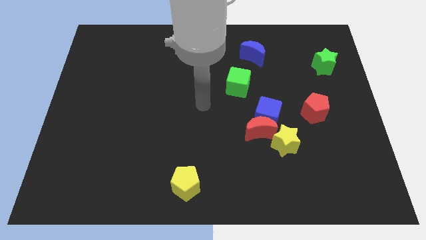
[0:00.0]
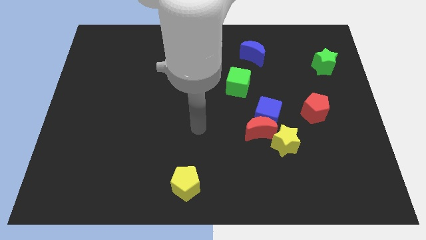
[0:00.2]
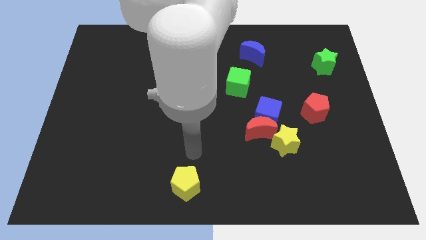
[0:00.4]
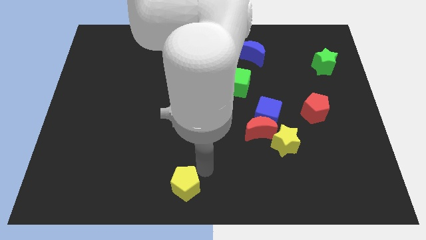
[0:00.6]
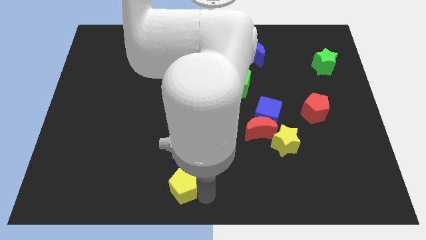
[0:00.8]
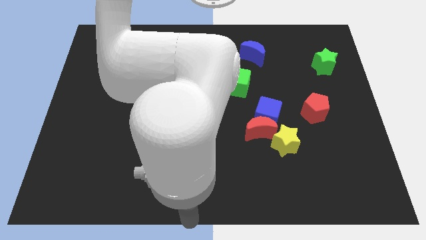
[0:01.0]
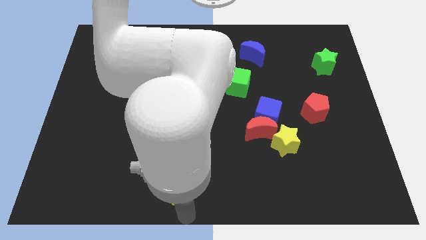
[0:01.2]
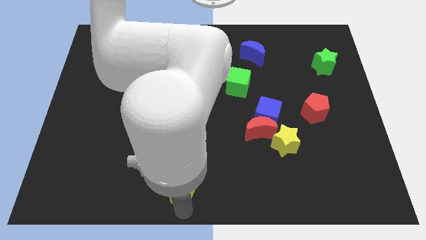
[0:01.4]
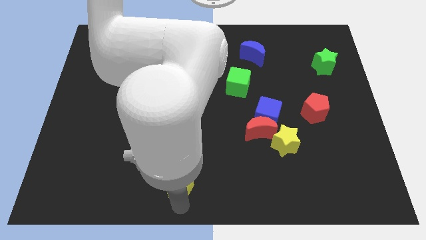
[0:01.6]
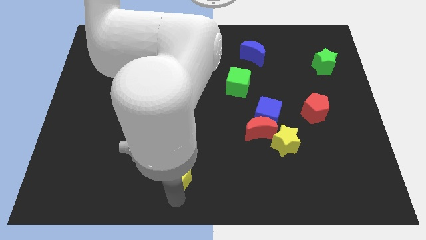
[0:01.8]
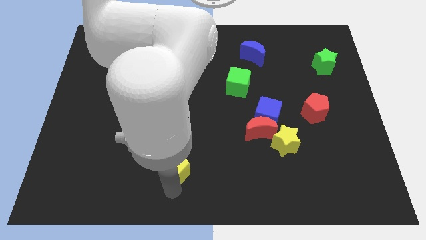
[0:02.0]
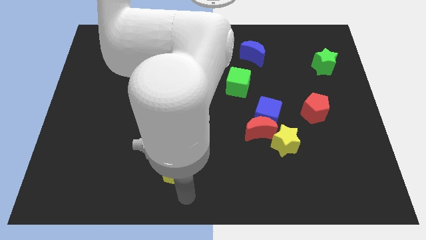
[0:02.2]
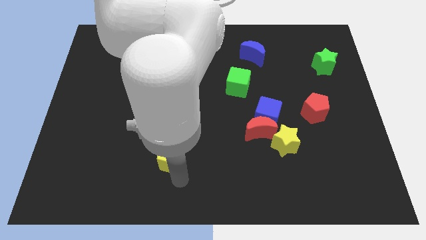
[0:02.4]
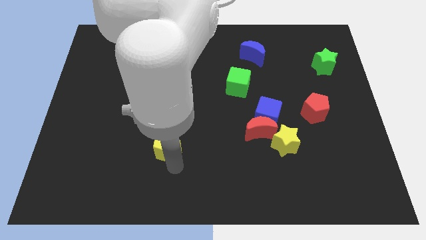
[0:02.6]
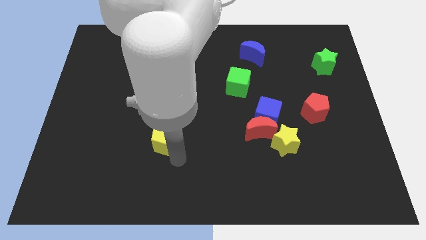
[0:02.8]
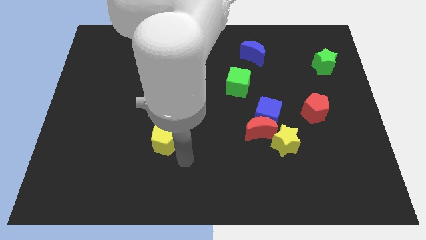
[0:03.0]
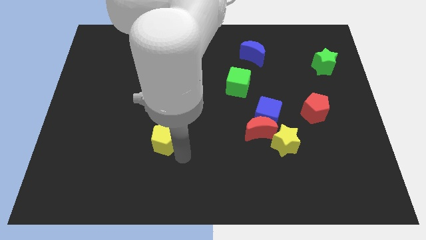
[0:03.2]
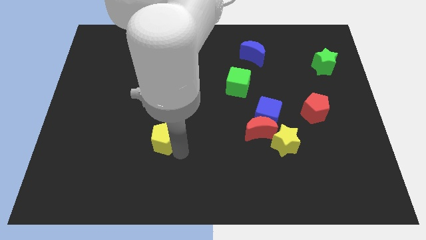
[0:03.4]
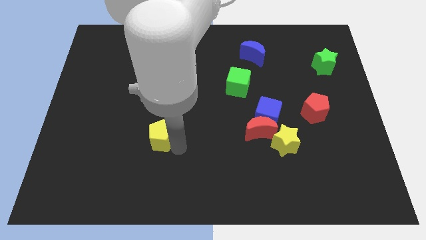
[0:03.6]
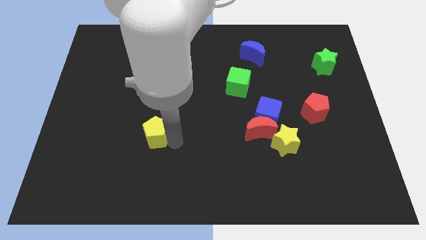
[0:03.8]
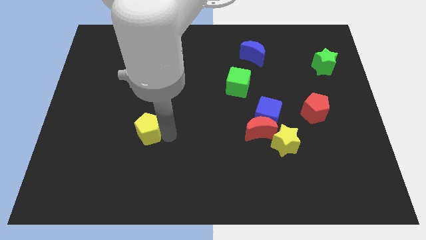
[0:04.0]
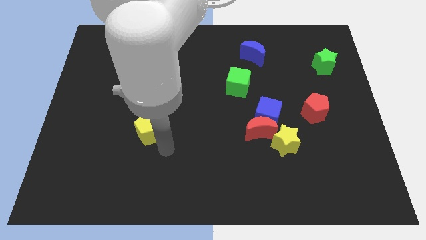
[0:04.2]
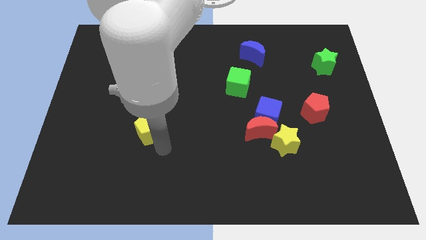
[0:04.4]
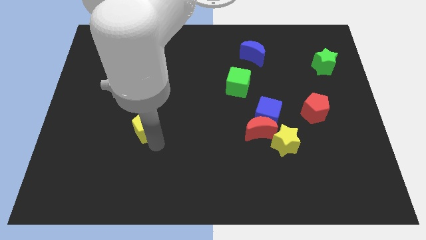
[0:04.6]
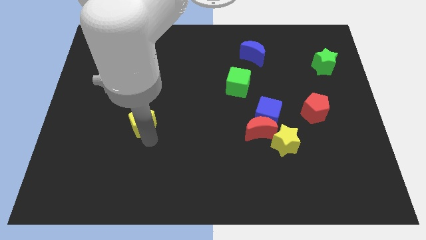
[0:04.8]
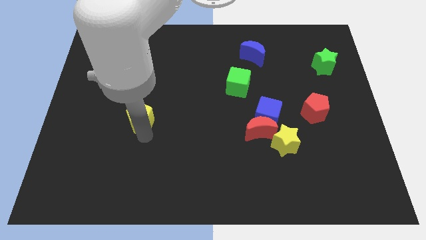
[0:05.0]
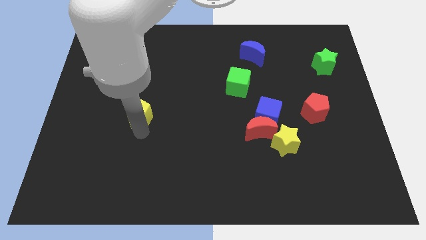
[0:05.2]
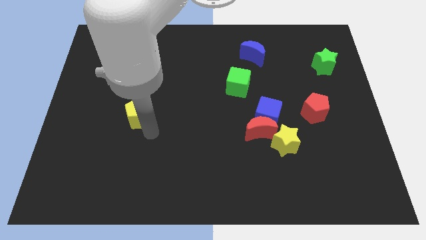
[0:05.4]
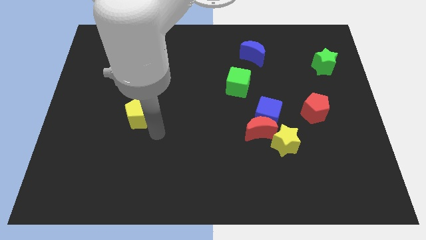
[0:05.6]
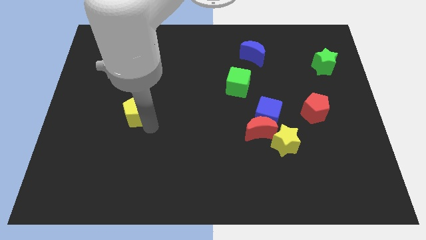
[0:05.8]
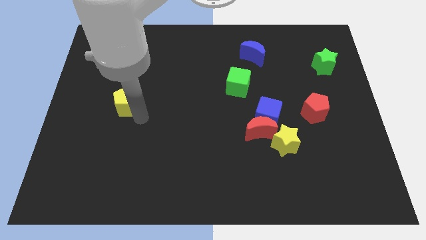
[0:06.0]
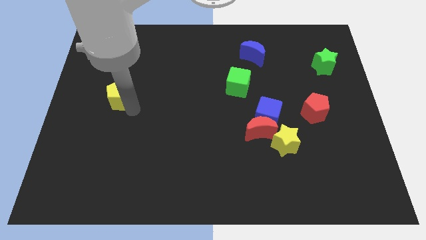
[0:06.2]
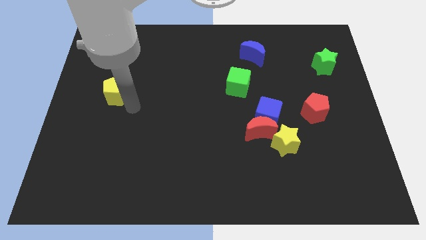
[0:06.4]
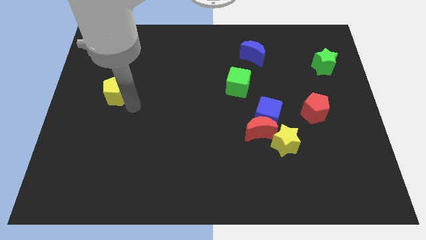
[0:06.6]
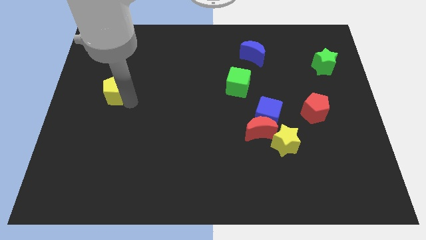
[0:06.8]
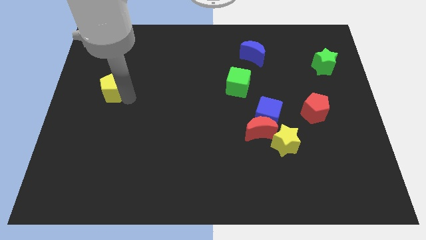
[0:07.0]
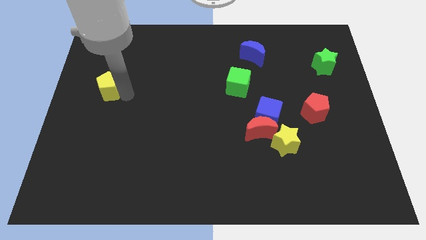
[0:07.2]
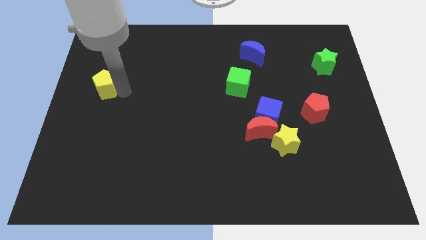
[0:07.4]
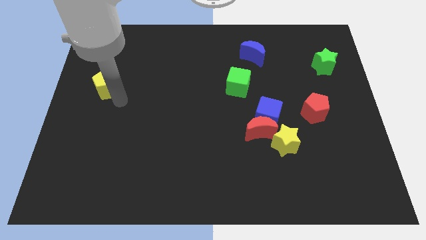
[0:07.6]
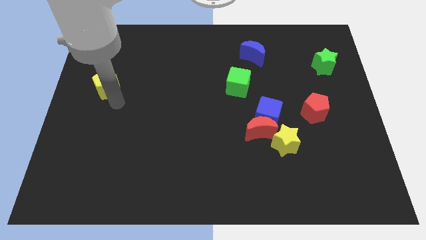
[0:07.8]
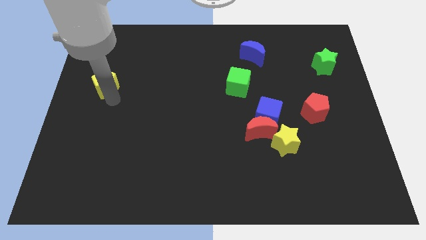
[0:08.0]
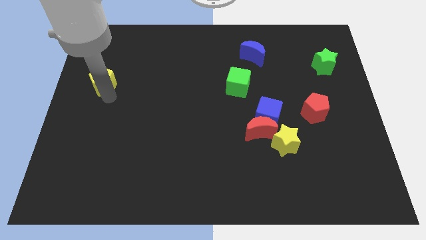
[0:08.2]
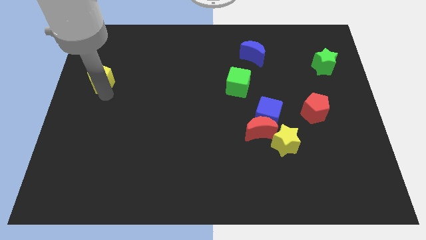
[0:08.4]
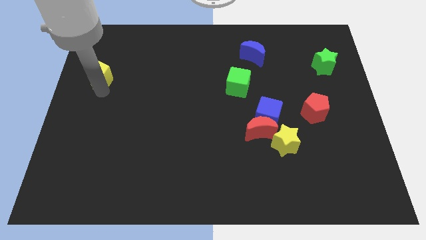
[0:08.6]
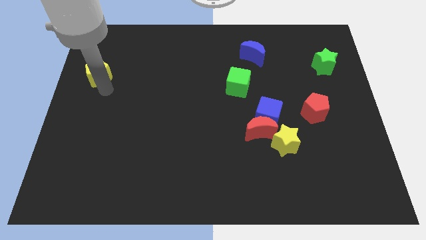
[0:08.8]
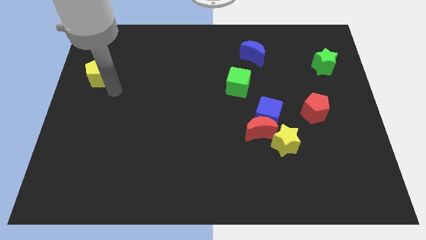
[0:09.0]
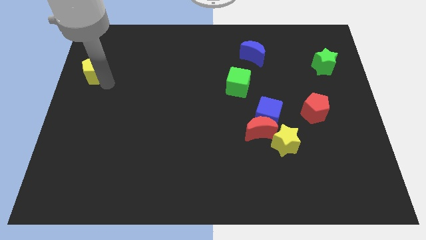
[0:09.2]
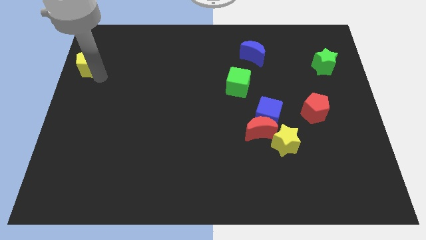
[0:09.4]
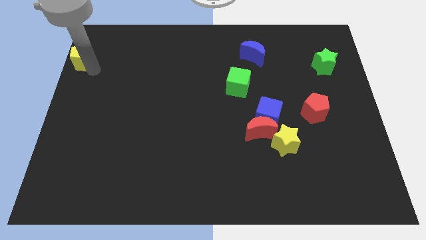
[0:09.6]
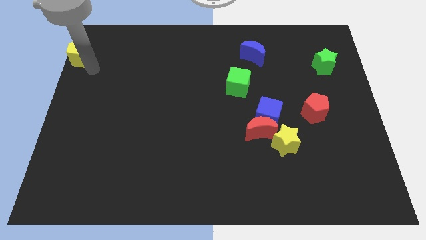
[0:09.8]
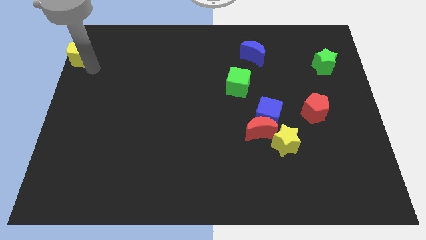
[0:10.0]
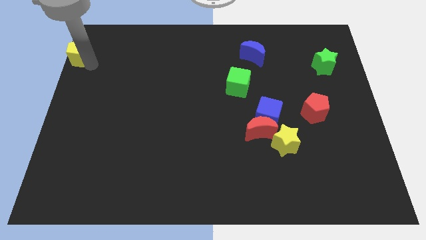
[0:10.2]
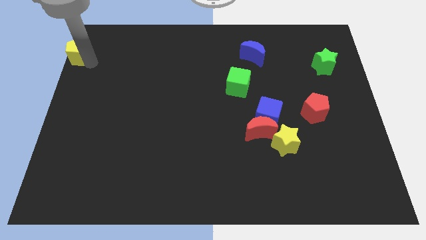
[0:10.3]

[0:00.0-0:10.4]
slide the yellow pentagon to the top left of the board

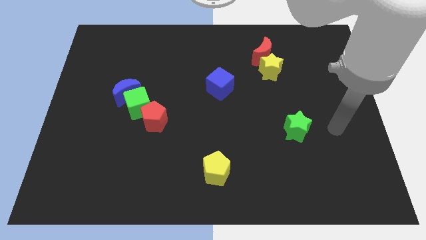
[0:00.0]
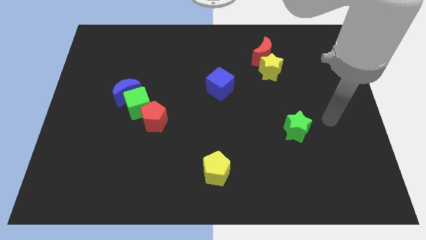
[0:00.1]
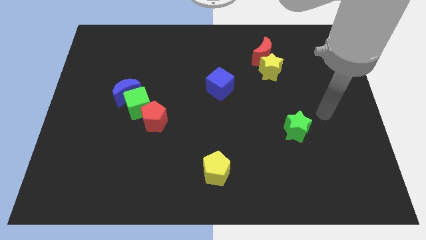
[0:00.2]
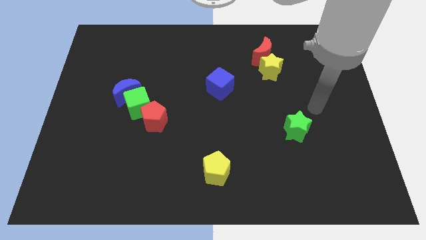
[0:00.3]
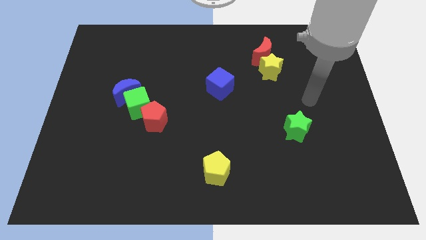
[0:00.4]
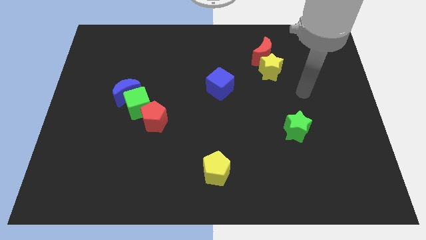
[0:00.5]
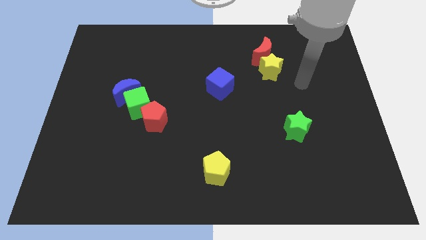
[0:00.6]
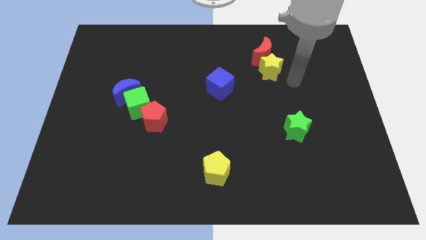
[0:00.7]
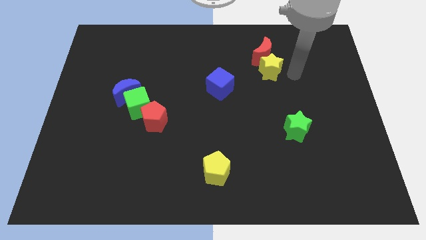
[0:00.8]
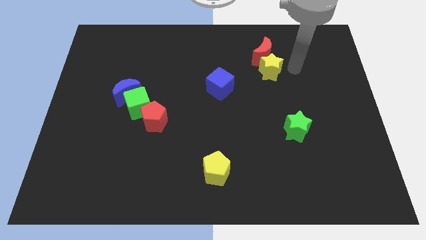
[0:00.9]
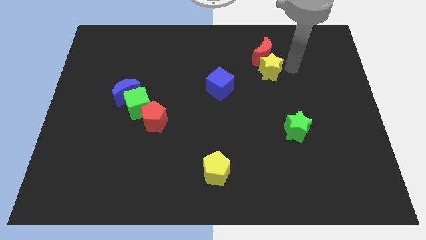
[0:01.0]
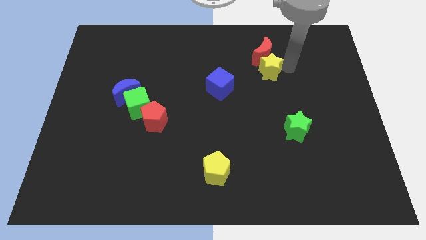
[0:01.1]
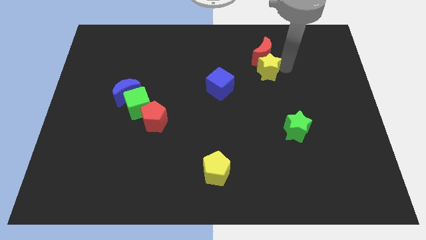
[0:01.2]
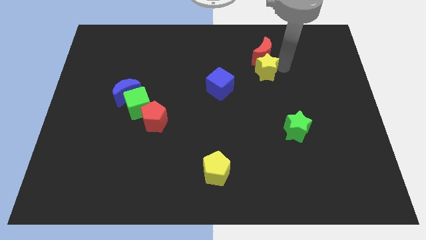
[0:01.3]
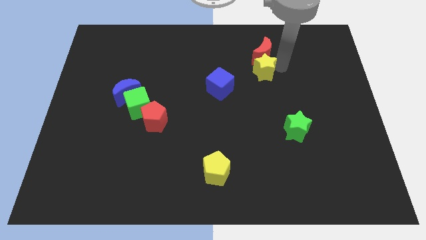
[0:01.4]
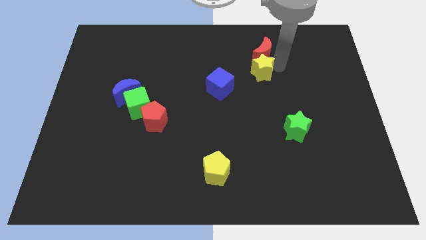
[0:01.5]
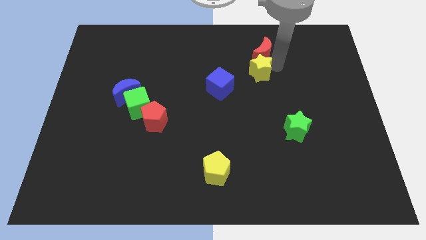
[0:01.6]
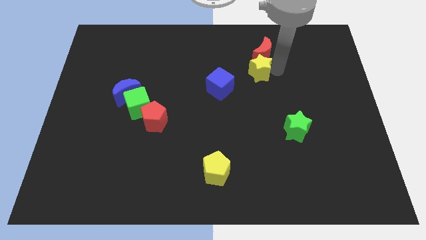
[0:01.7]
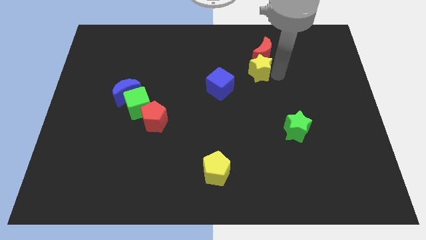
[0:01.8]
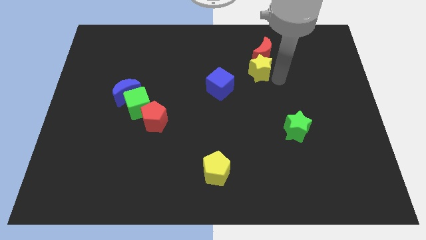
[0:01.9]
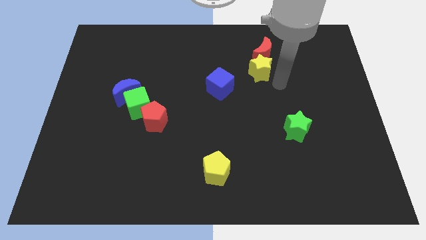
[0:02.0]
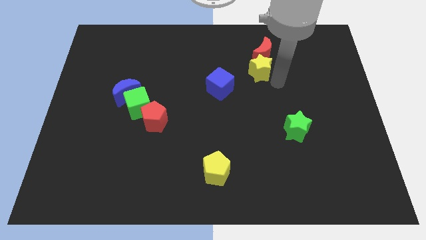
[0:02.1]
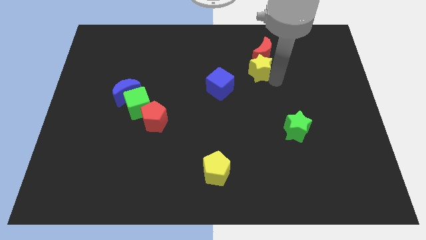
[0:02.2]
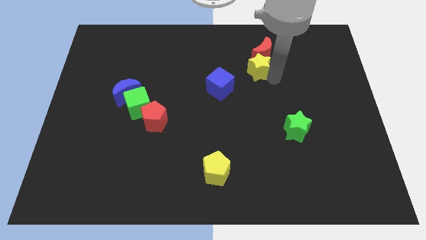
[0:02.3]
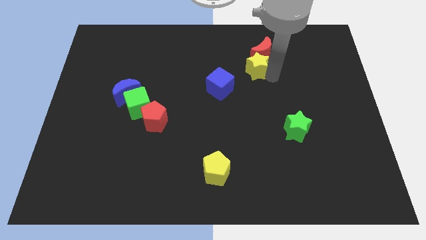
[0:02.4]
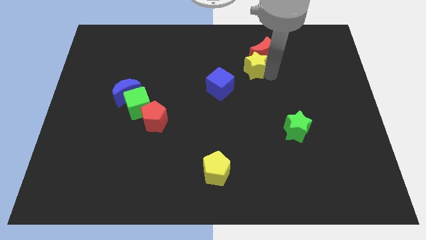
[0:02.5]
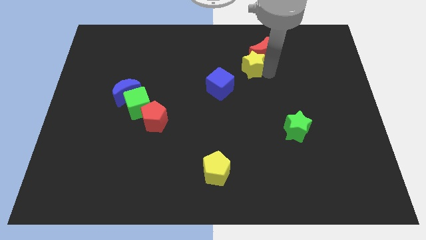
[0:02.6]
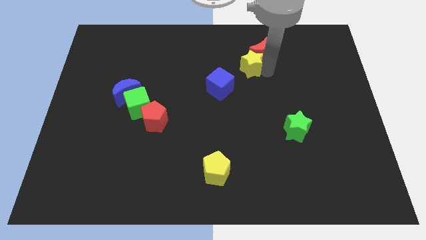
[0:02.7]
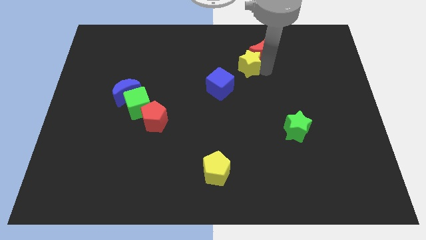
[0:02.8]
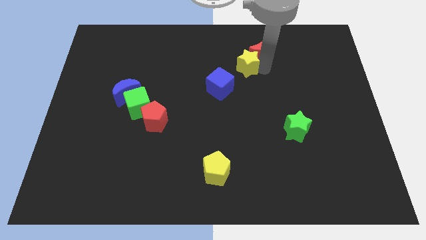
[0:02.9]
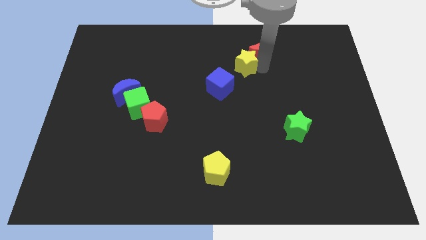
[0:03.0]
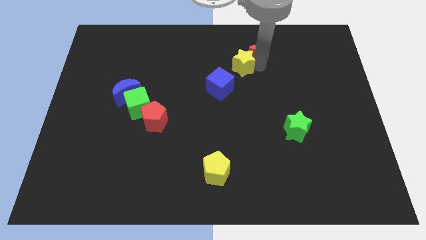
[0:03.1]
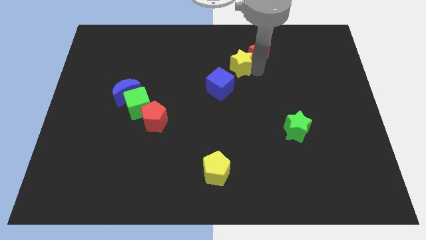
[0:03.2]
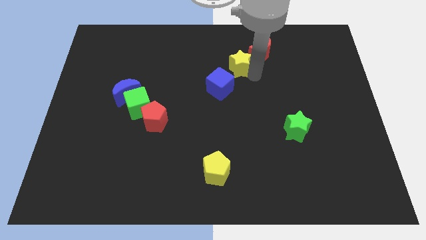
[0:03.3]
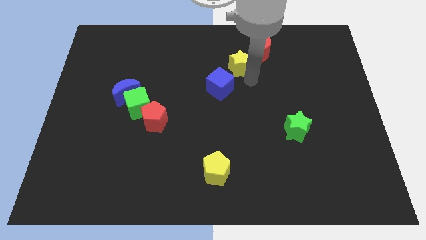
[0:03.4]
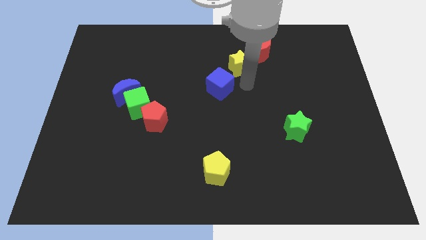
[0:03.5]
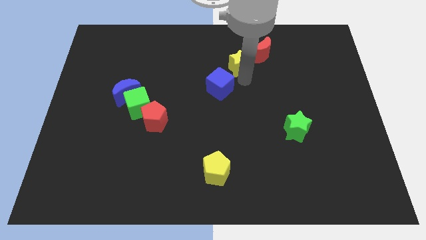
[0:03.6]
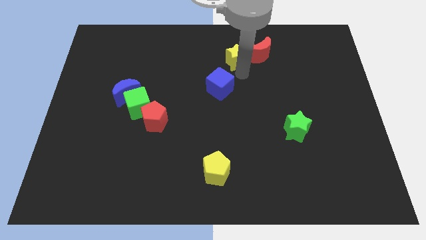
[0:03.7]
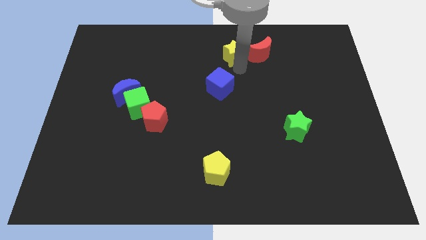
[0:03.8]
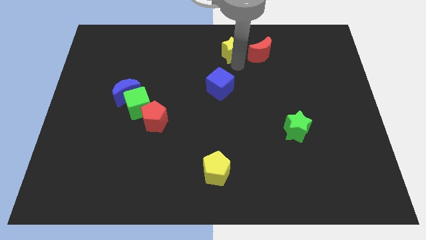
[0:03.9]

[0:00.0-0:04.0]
push the yellow star to the towards your base
